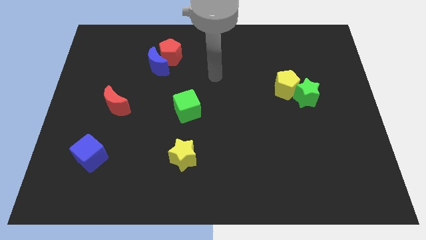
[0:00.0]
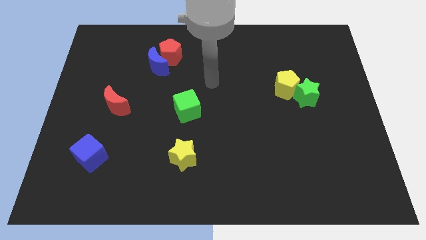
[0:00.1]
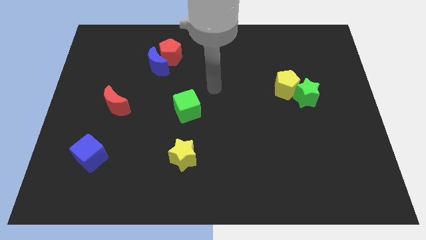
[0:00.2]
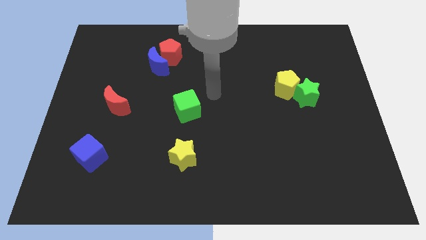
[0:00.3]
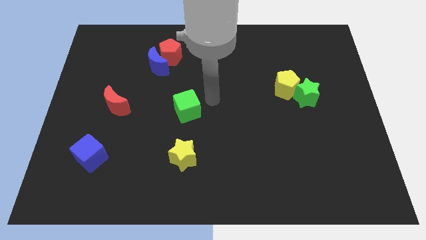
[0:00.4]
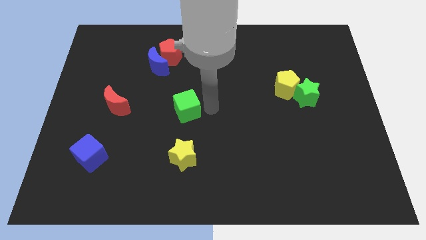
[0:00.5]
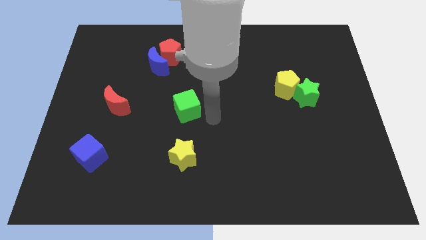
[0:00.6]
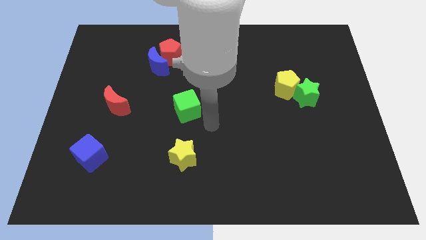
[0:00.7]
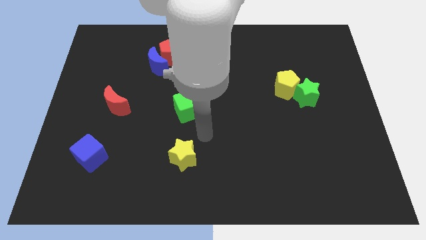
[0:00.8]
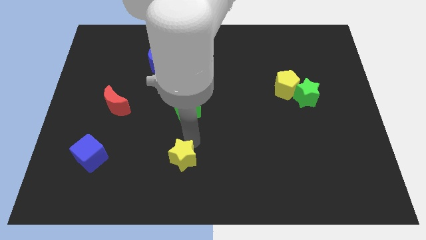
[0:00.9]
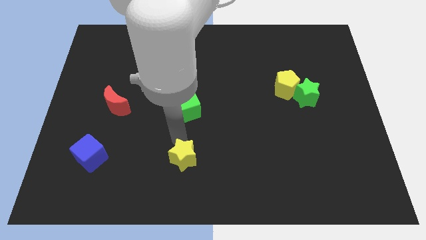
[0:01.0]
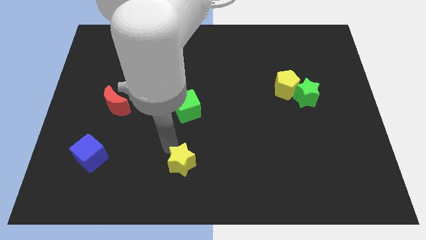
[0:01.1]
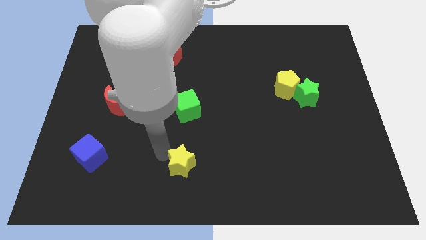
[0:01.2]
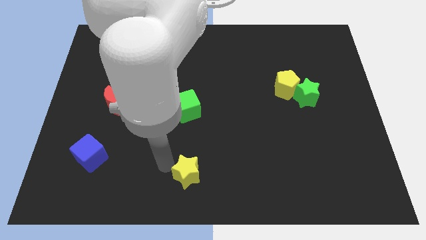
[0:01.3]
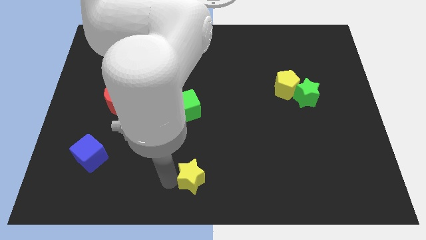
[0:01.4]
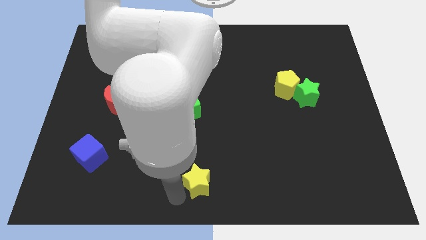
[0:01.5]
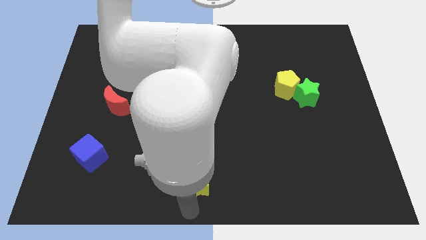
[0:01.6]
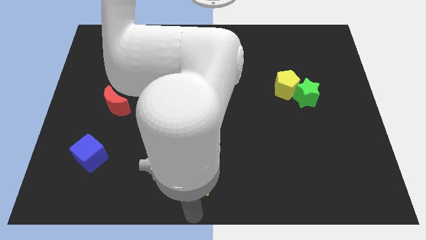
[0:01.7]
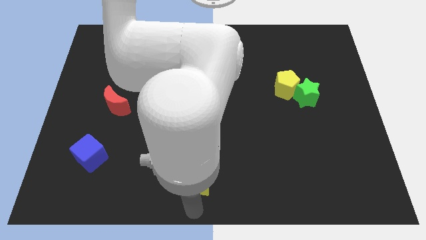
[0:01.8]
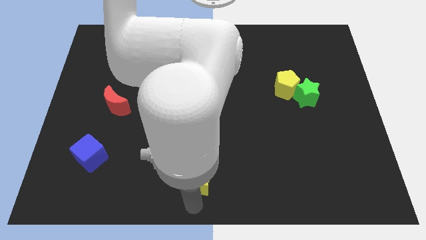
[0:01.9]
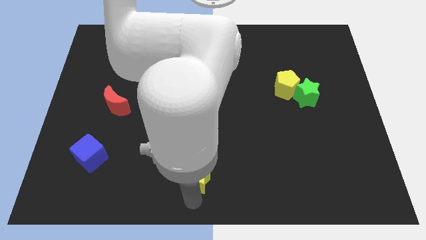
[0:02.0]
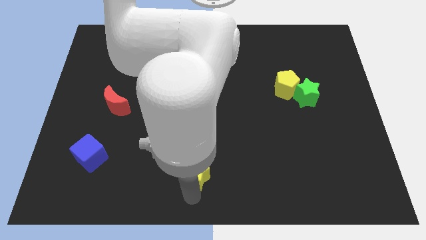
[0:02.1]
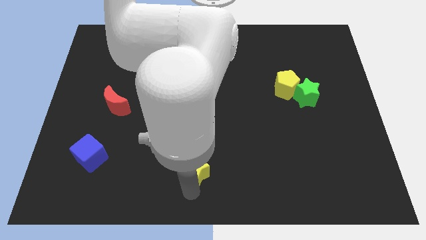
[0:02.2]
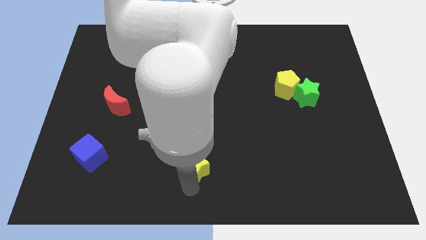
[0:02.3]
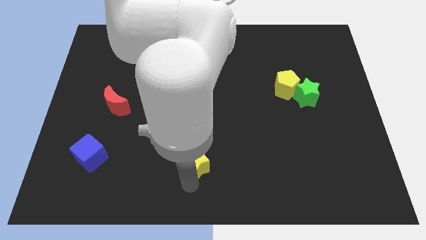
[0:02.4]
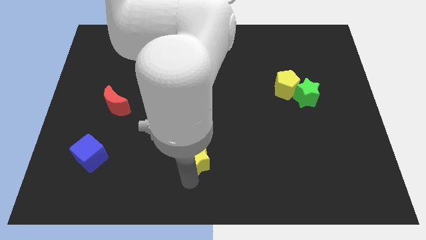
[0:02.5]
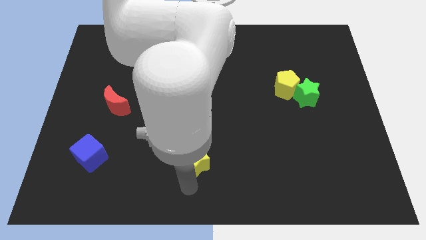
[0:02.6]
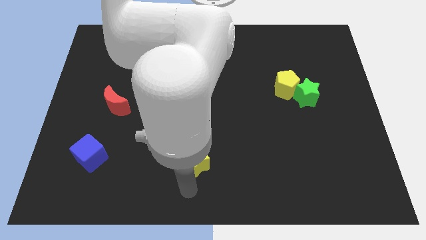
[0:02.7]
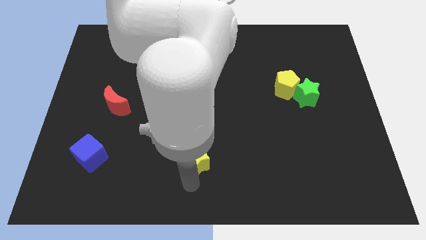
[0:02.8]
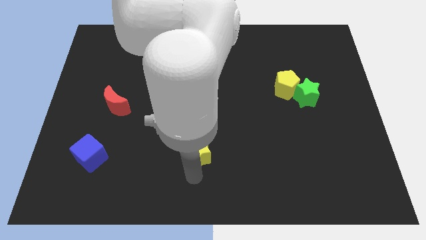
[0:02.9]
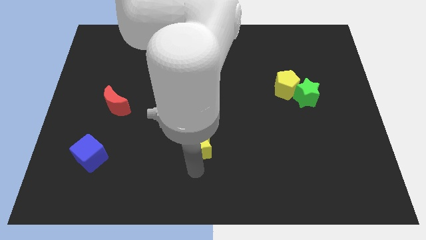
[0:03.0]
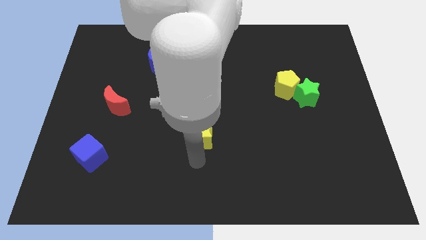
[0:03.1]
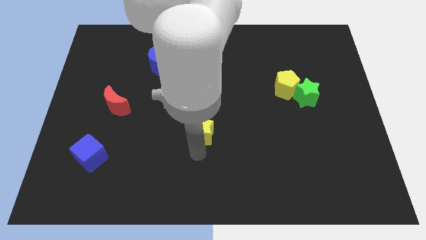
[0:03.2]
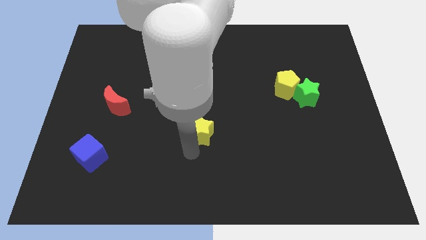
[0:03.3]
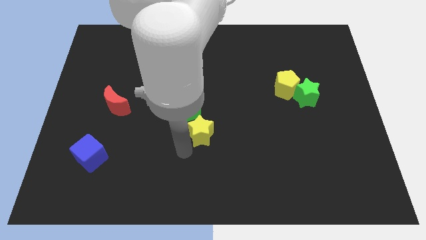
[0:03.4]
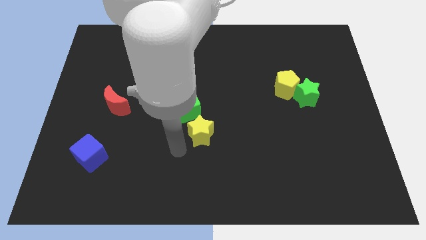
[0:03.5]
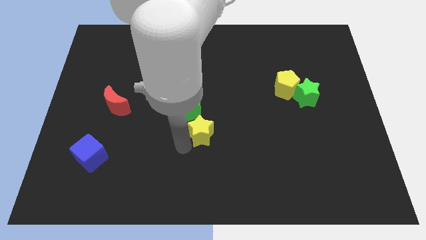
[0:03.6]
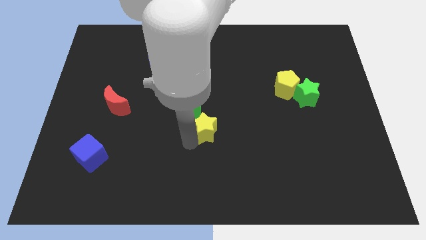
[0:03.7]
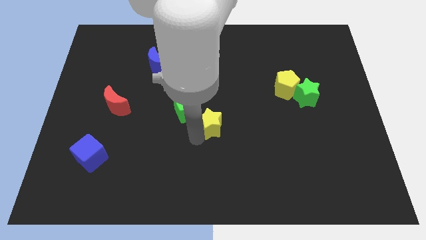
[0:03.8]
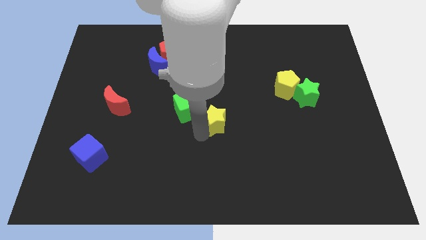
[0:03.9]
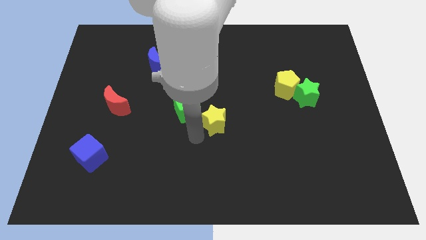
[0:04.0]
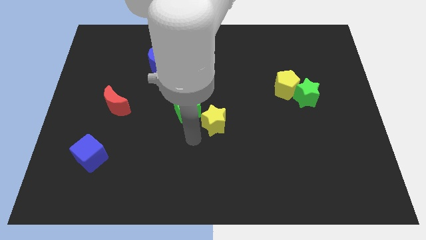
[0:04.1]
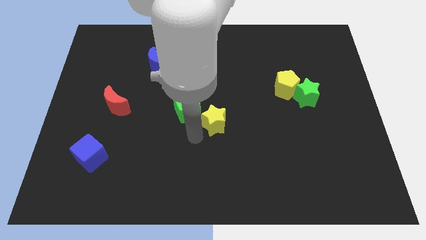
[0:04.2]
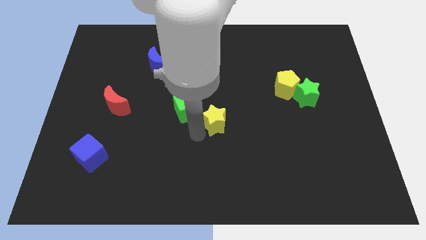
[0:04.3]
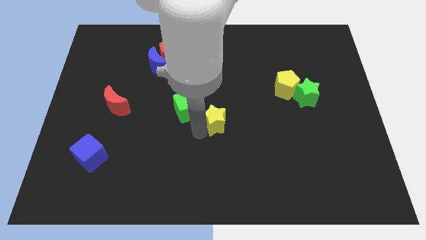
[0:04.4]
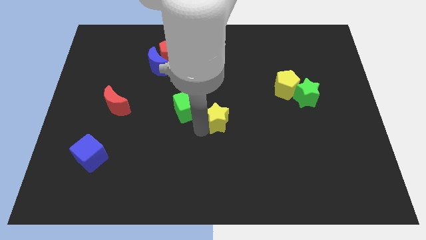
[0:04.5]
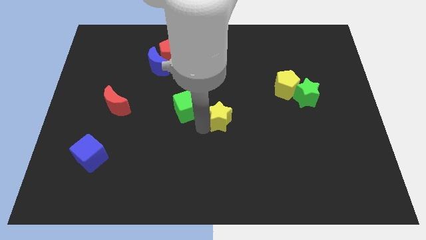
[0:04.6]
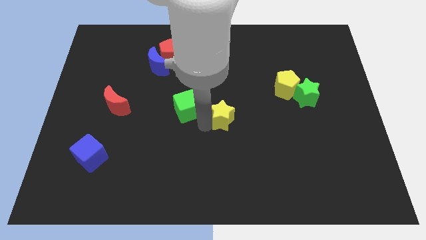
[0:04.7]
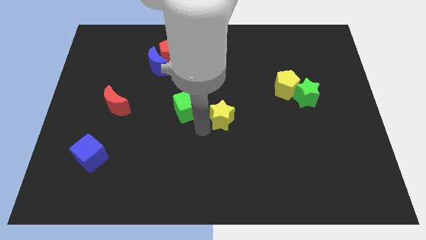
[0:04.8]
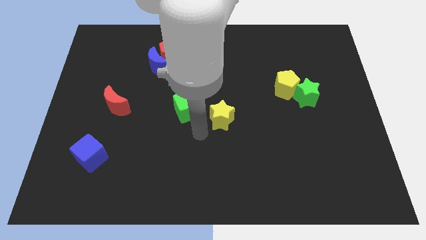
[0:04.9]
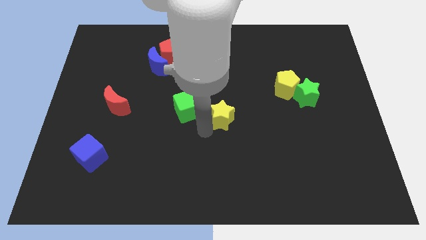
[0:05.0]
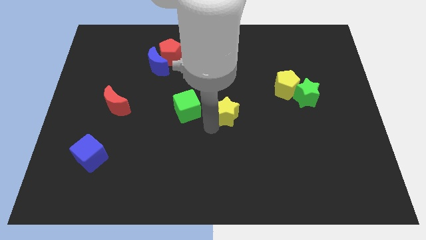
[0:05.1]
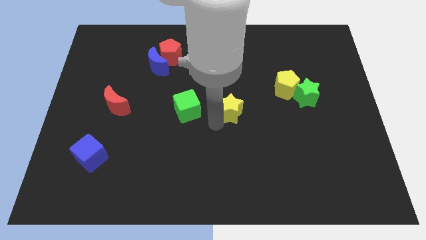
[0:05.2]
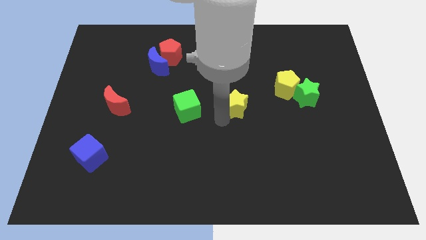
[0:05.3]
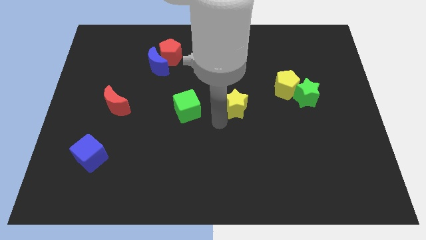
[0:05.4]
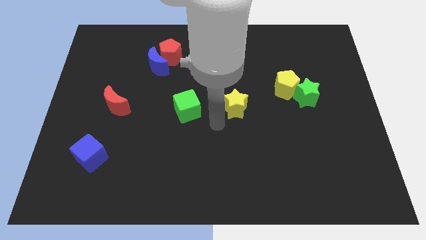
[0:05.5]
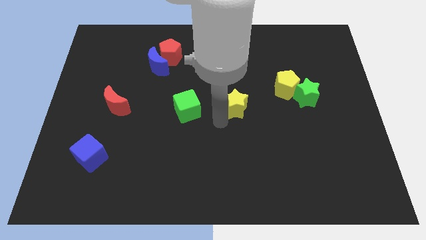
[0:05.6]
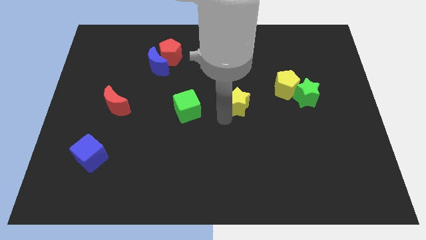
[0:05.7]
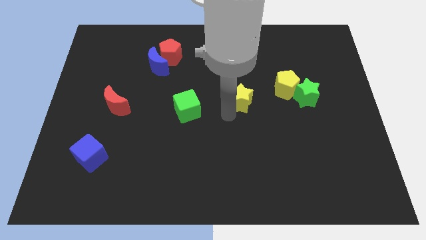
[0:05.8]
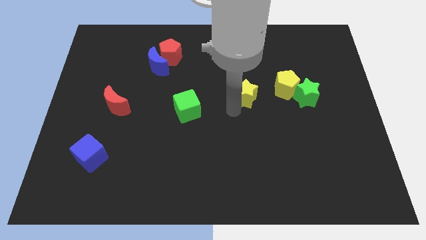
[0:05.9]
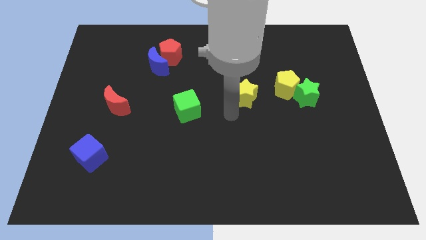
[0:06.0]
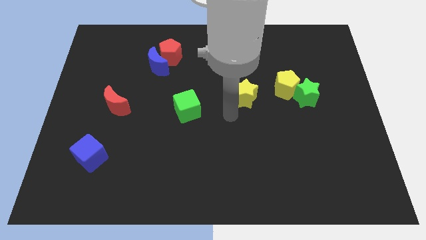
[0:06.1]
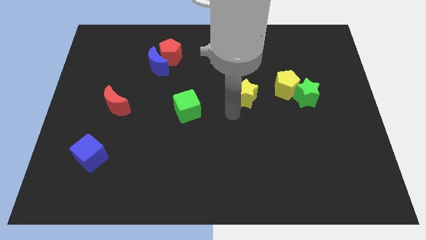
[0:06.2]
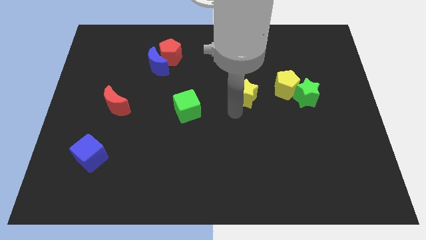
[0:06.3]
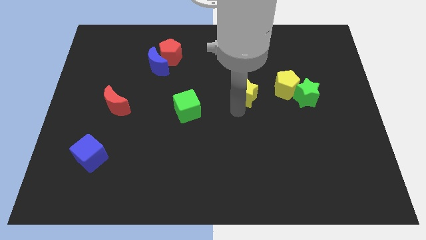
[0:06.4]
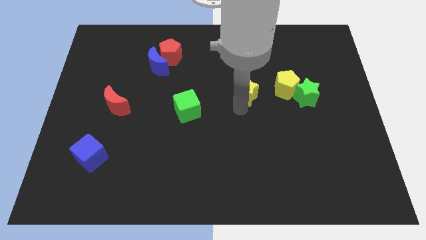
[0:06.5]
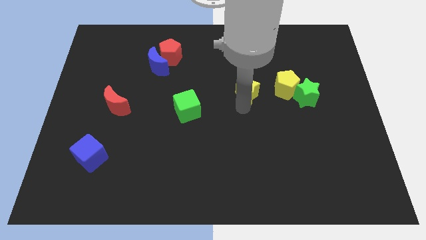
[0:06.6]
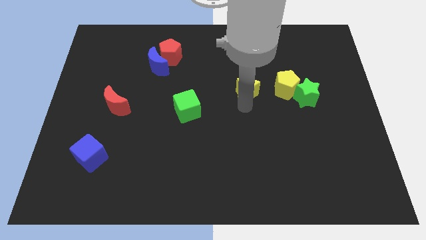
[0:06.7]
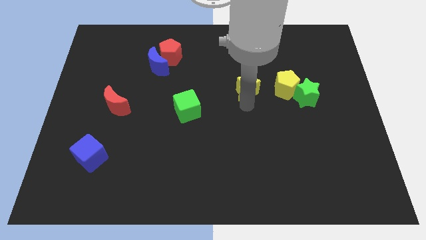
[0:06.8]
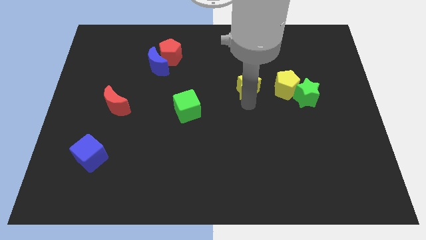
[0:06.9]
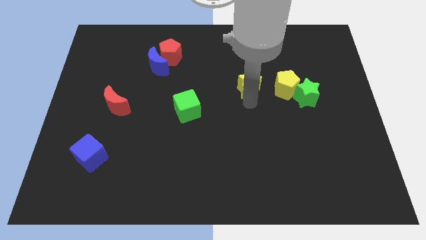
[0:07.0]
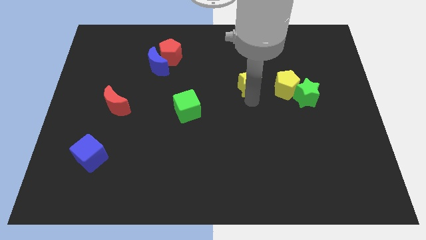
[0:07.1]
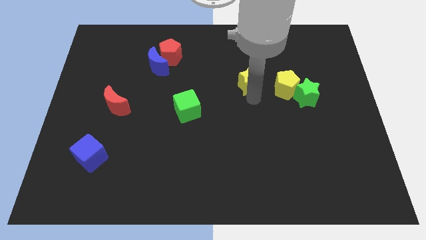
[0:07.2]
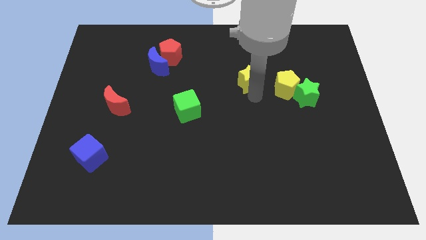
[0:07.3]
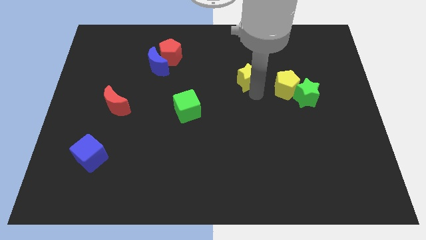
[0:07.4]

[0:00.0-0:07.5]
put the yellow star diagonally up and to the left of the yellow pentagon

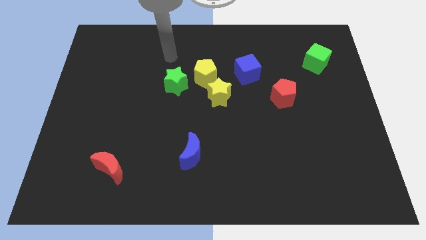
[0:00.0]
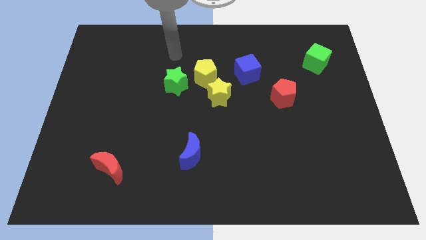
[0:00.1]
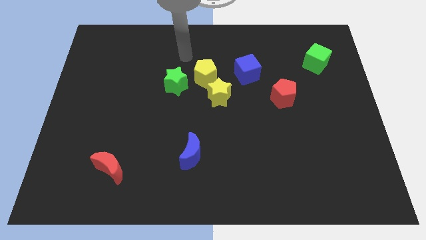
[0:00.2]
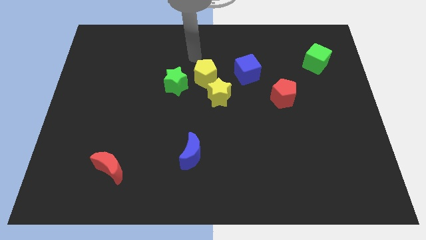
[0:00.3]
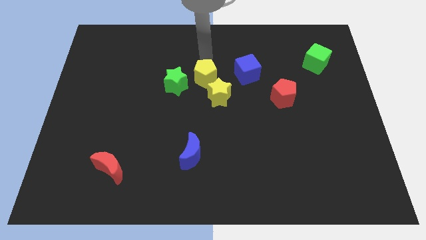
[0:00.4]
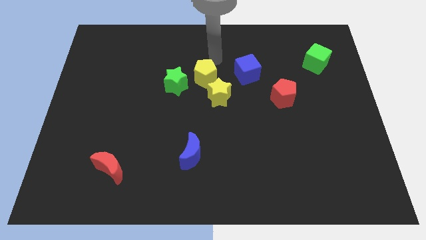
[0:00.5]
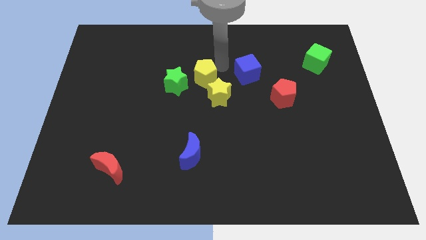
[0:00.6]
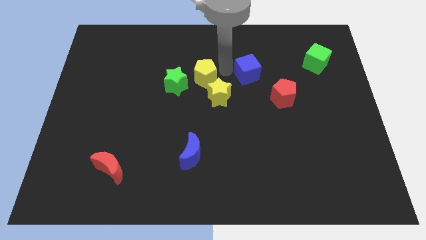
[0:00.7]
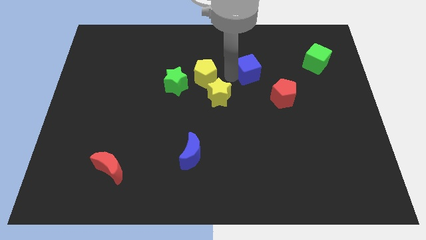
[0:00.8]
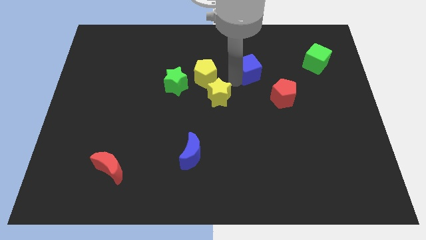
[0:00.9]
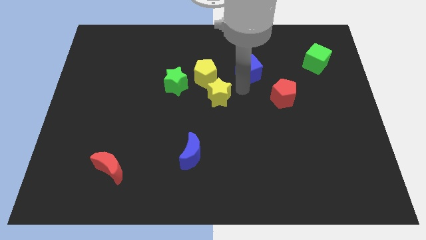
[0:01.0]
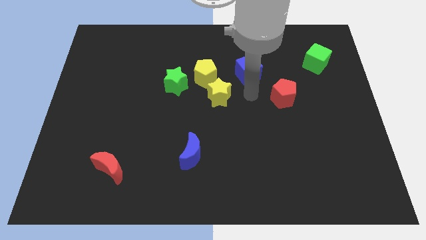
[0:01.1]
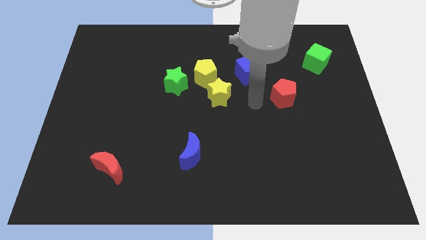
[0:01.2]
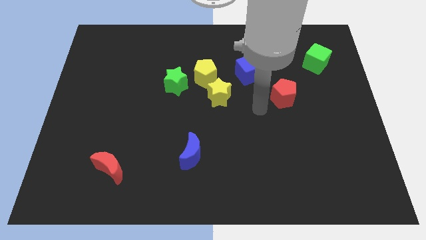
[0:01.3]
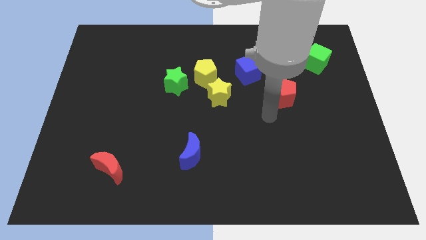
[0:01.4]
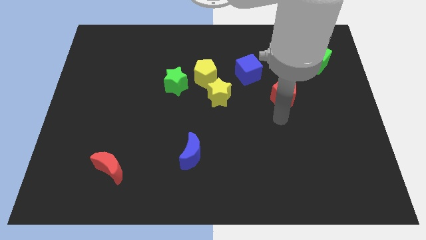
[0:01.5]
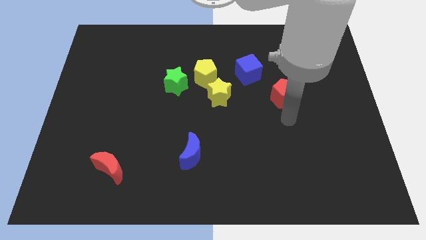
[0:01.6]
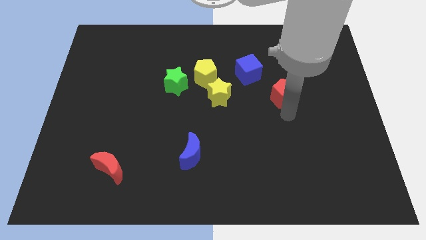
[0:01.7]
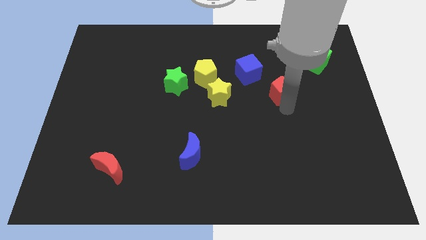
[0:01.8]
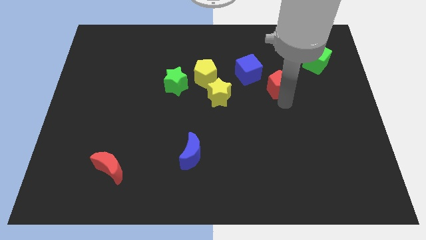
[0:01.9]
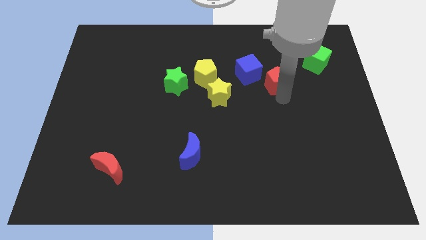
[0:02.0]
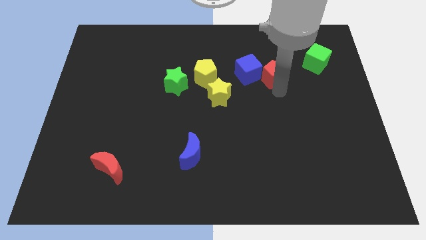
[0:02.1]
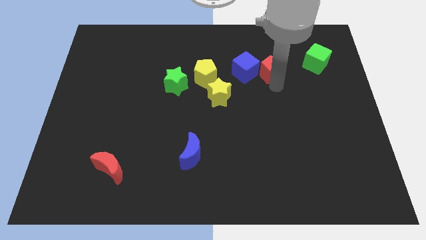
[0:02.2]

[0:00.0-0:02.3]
slide the red pentagon to the left of the green cube
